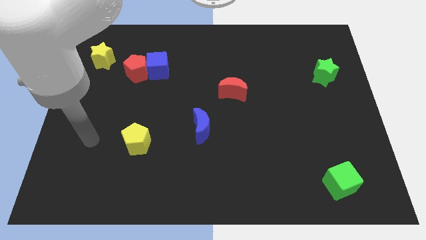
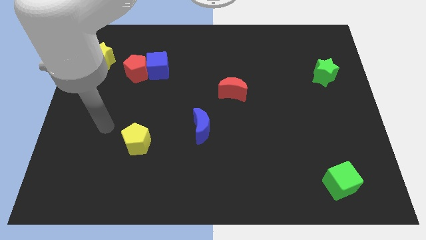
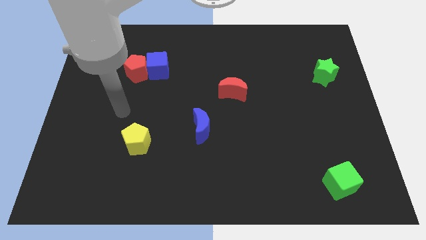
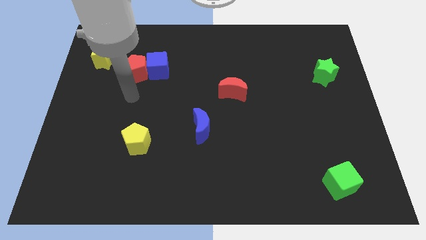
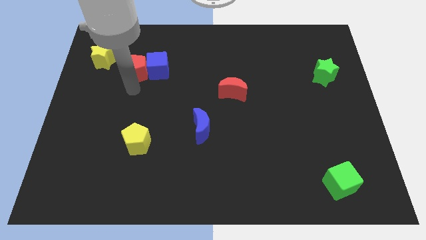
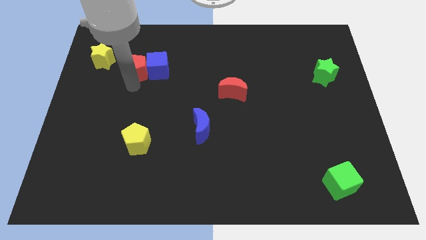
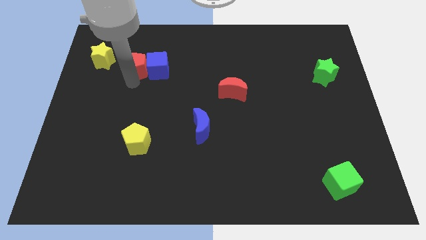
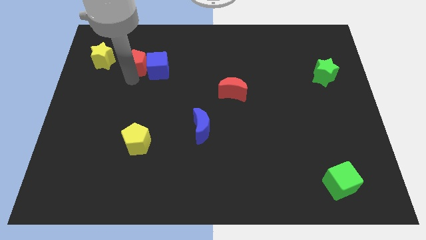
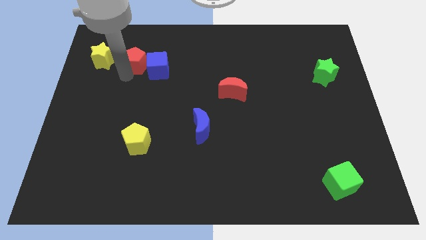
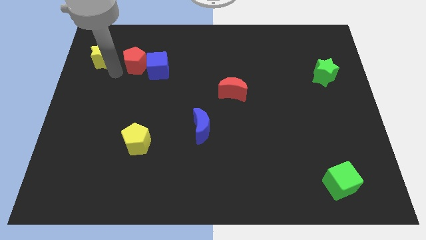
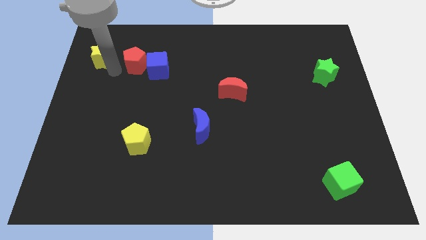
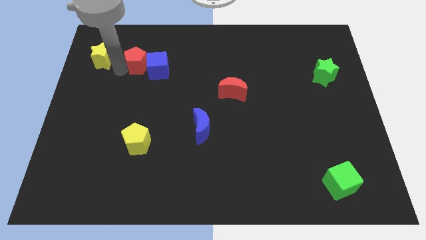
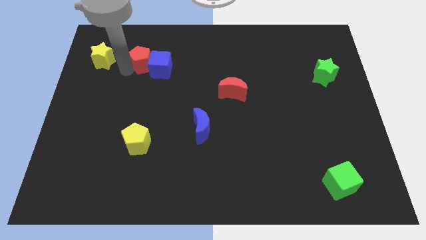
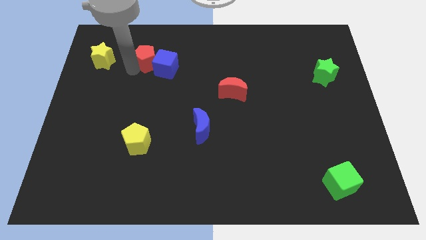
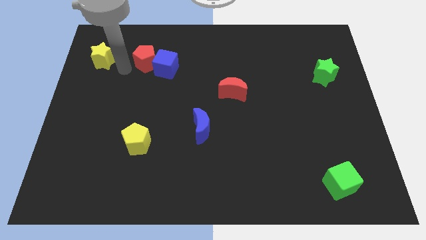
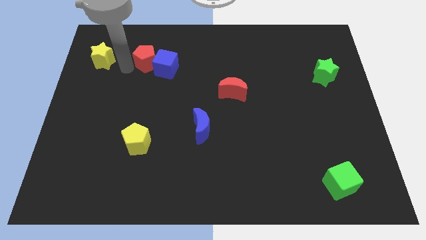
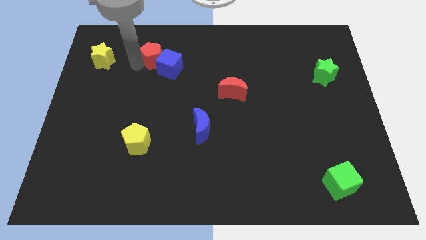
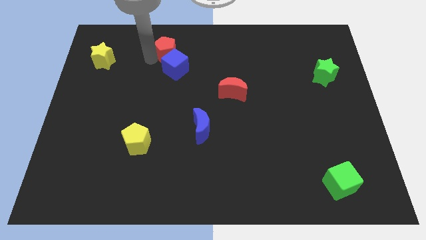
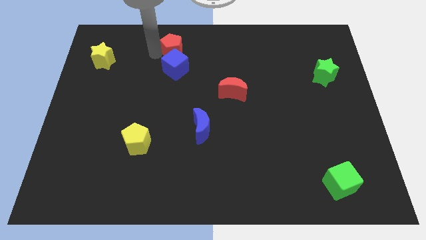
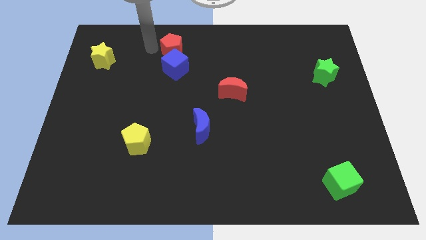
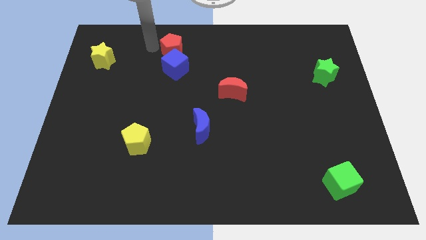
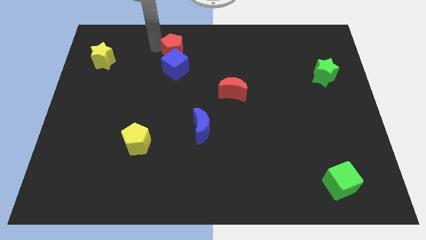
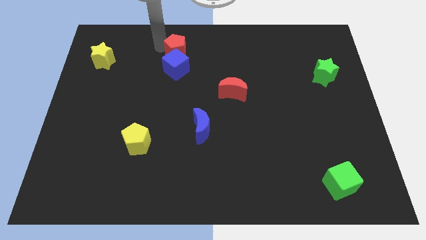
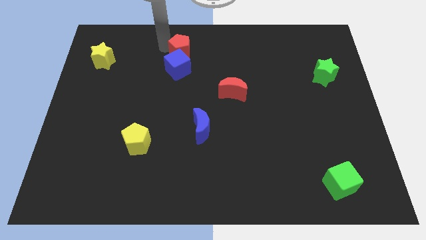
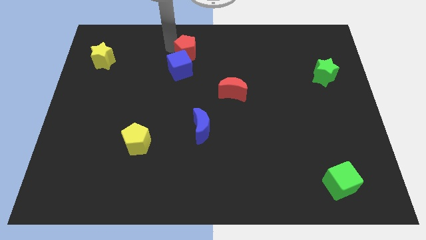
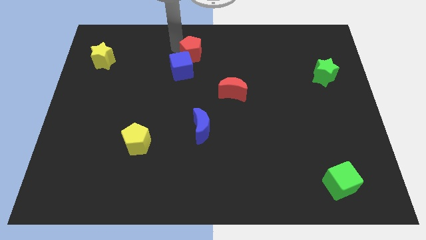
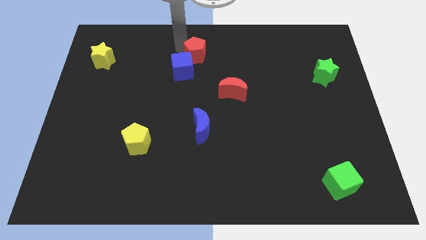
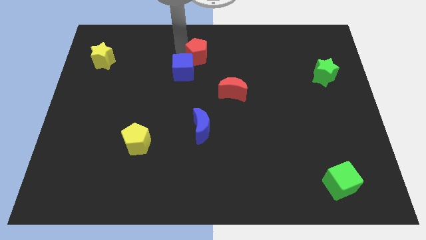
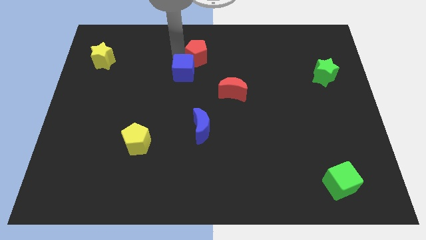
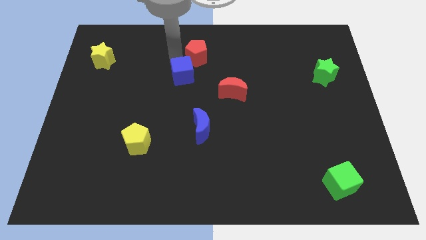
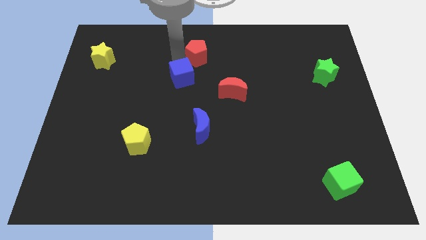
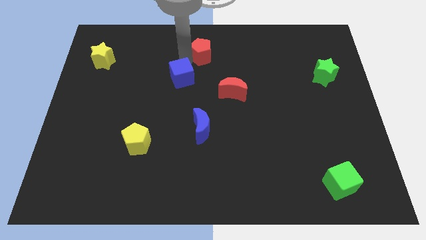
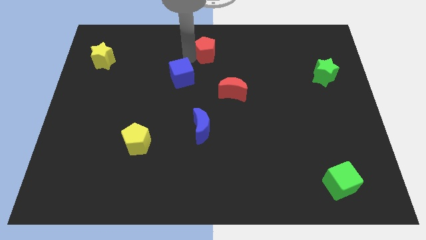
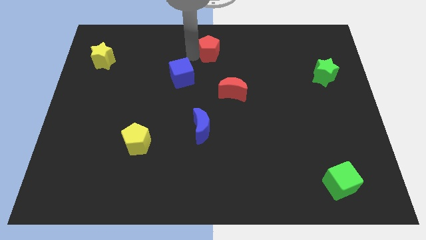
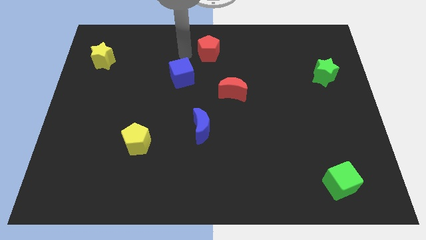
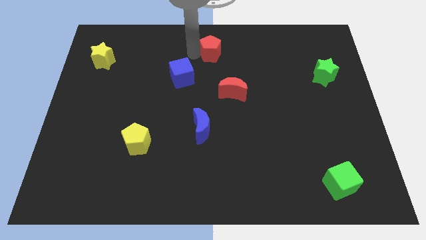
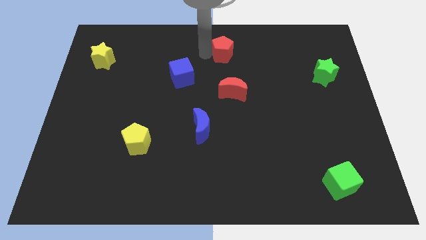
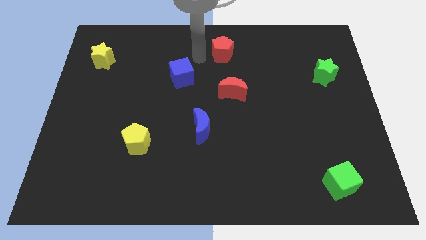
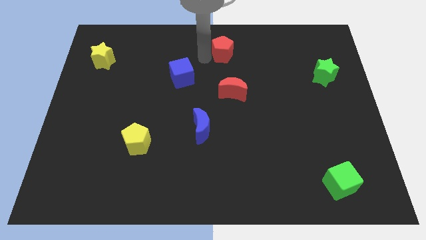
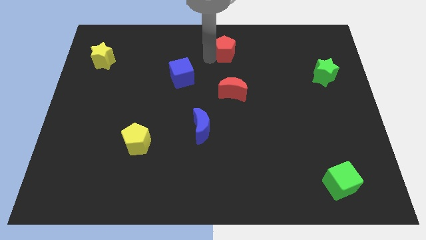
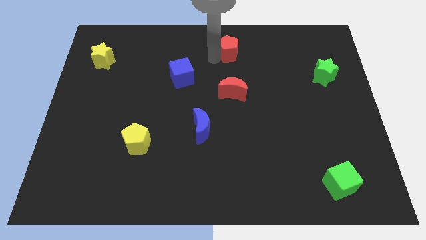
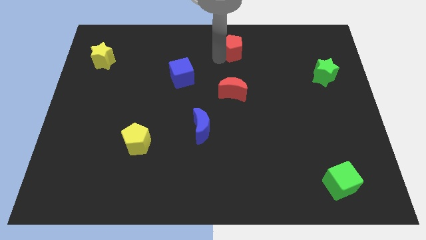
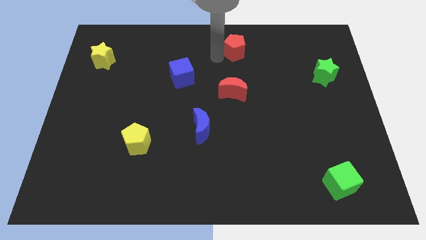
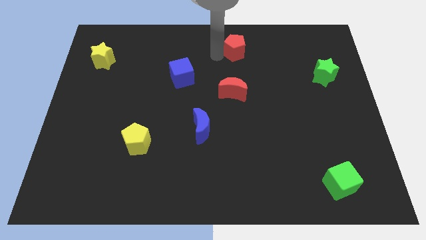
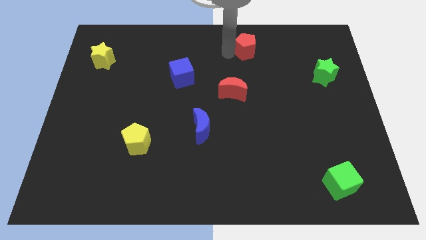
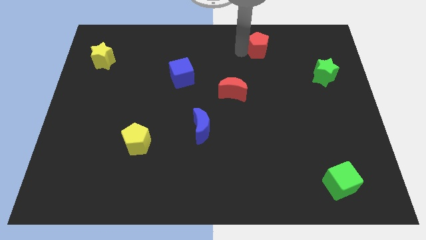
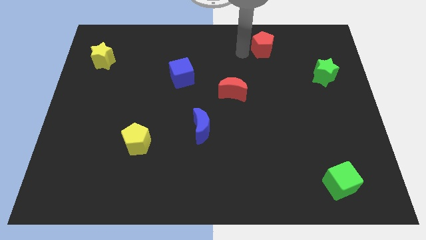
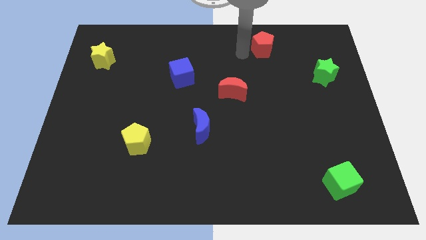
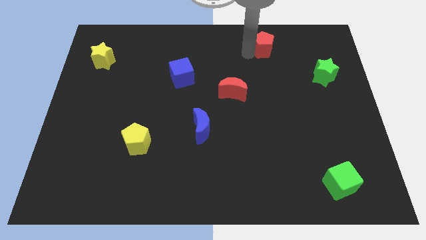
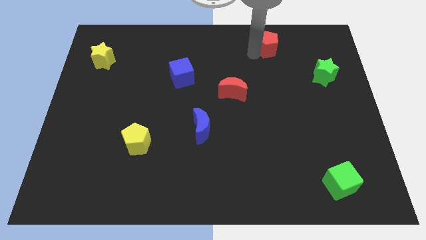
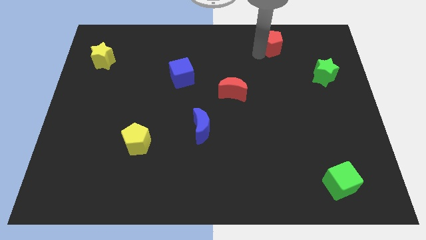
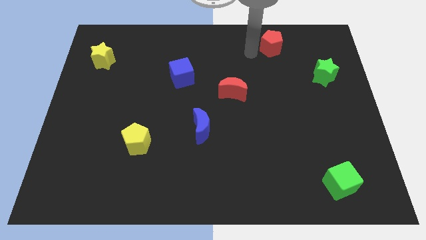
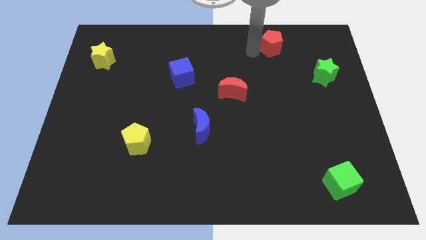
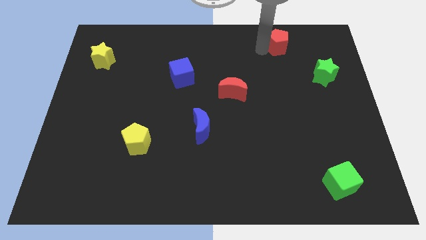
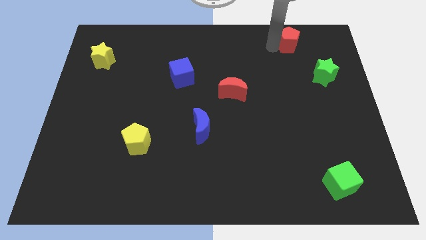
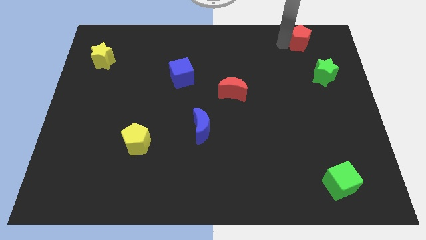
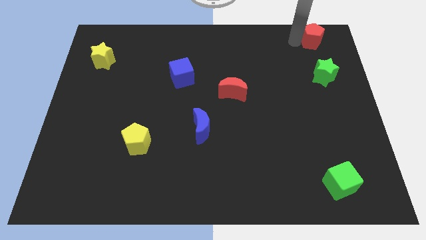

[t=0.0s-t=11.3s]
slide the red pentagon to the top right corner

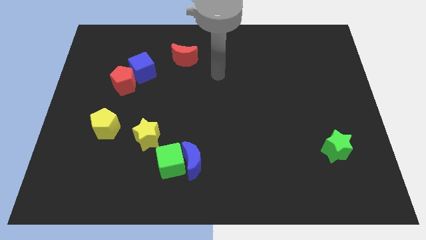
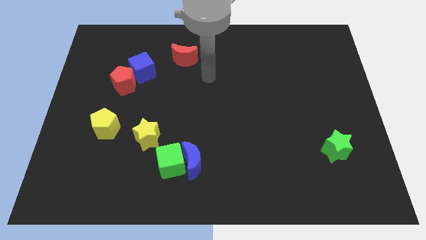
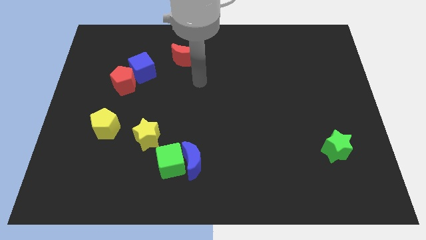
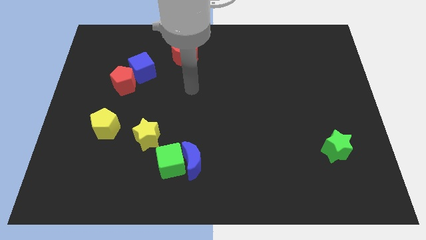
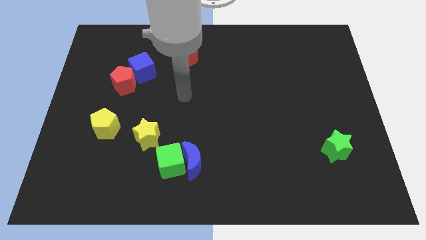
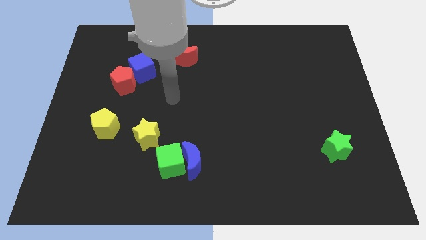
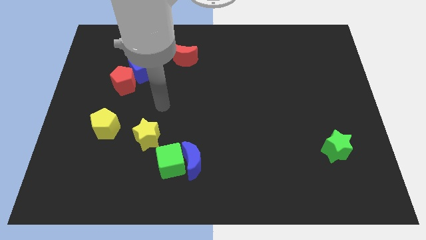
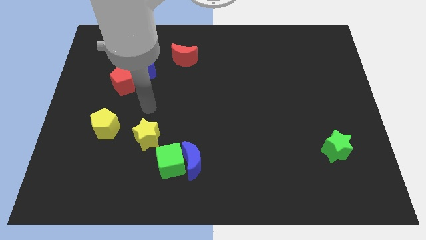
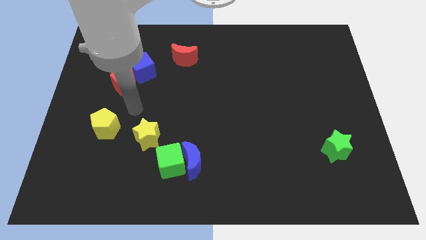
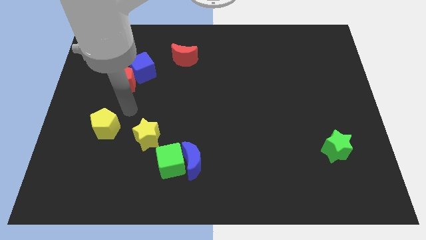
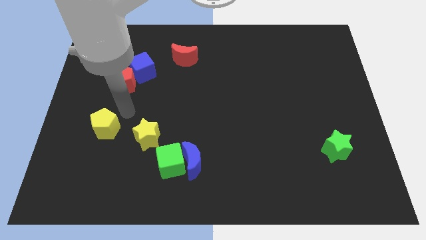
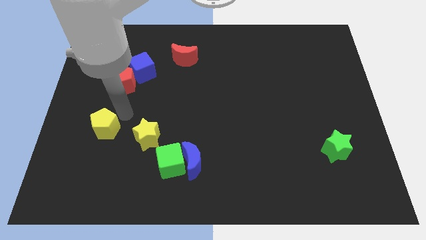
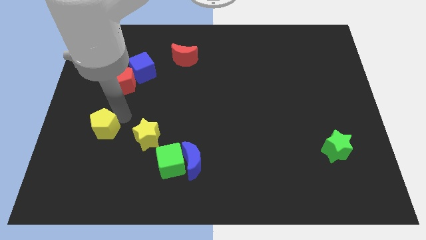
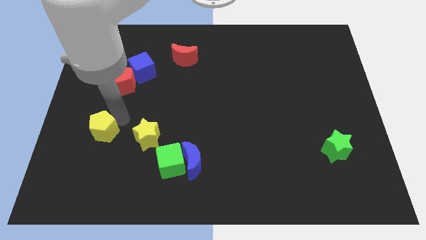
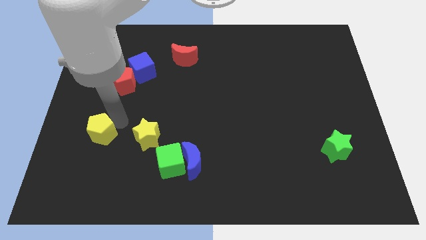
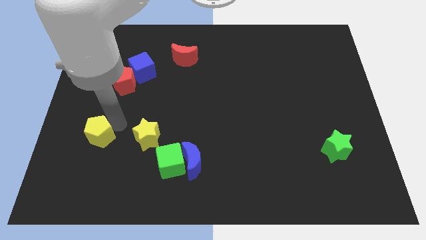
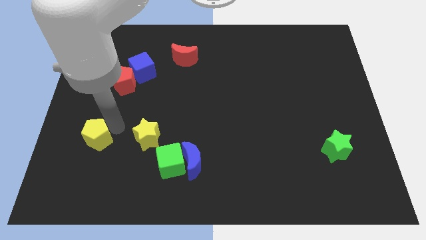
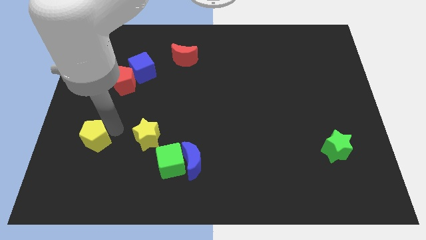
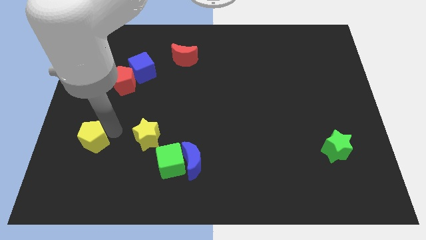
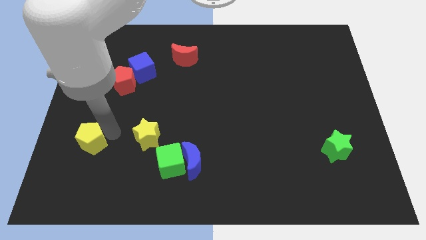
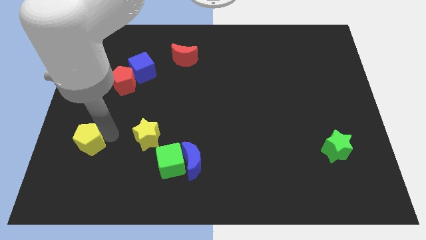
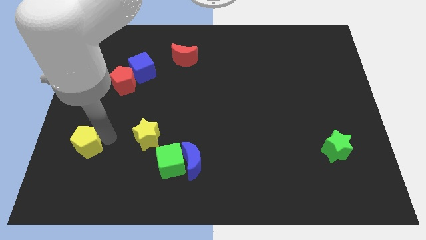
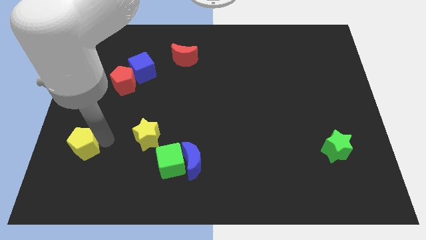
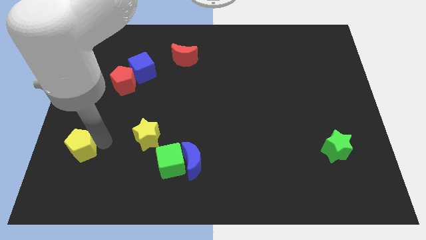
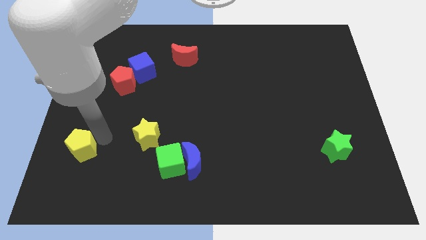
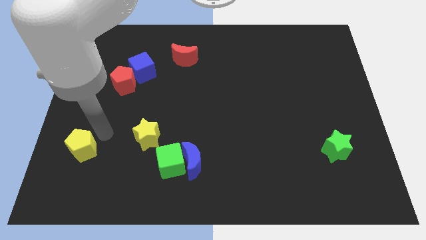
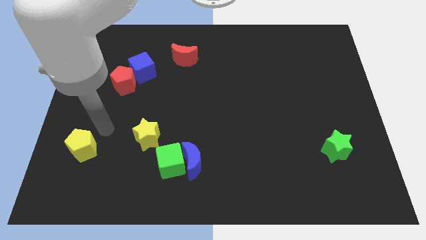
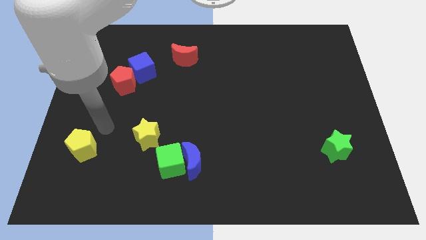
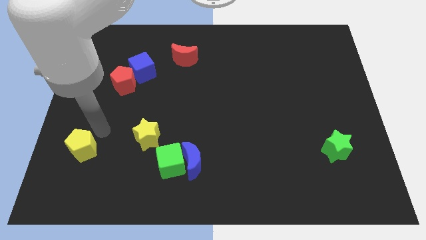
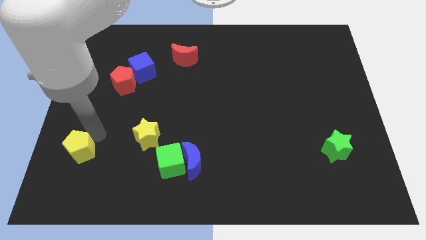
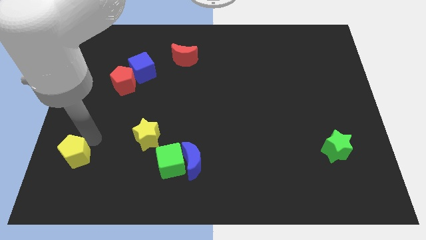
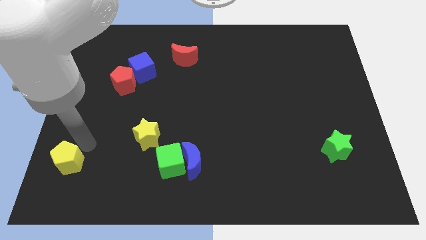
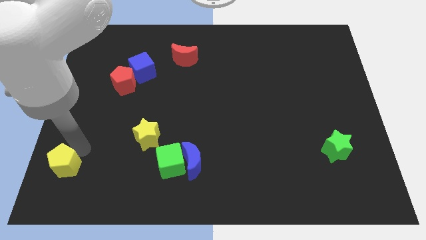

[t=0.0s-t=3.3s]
slide the yellow pentagon to the bottom left of the board
